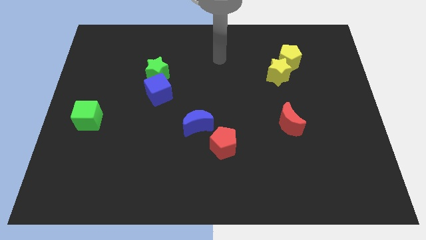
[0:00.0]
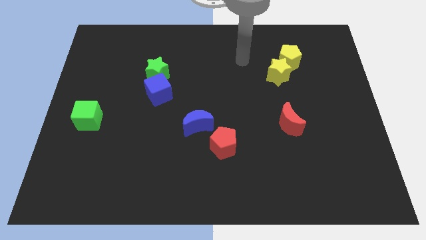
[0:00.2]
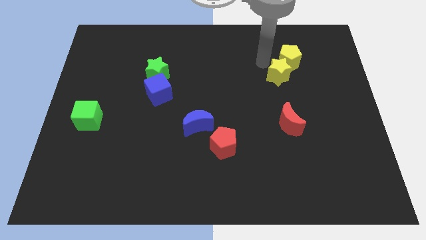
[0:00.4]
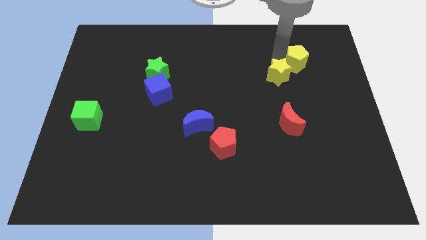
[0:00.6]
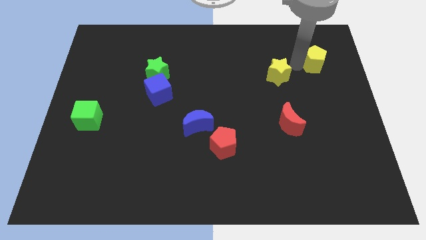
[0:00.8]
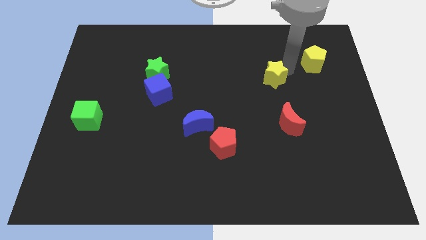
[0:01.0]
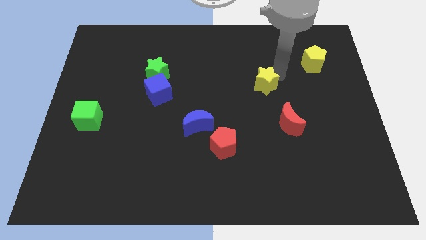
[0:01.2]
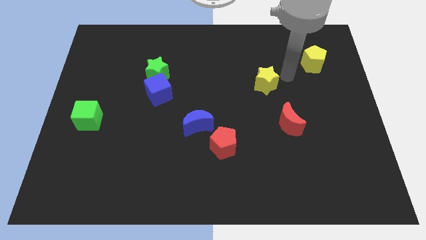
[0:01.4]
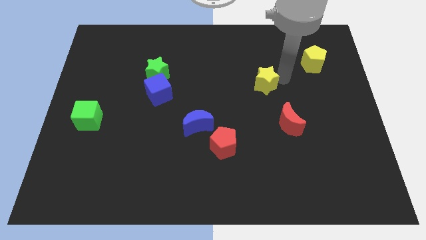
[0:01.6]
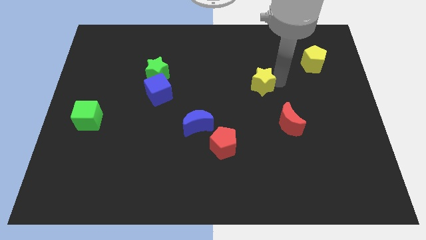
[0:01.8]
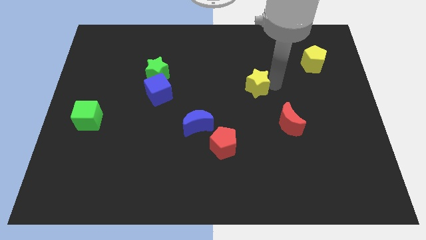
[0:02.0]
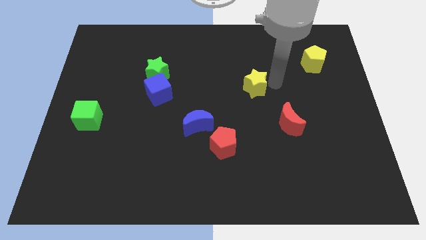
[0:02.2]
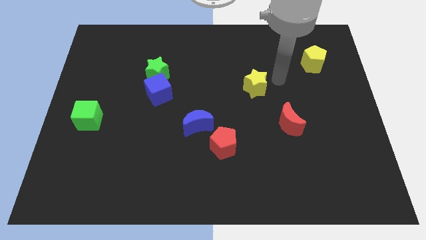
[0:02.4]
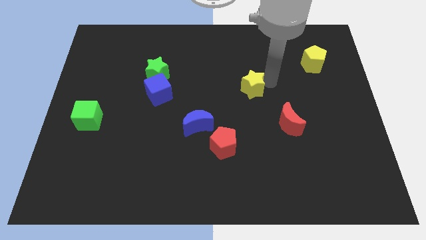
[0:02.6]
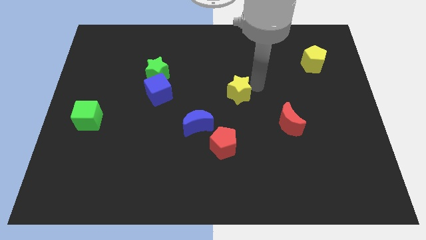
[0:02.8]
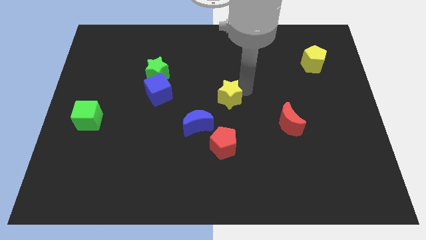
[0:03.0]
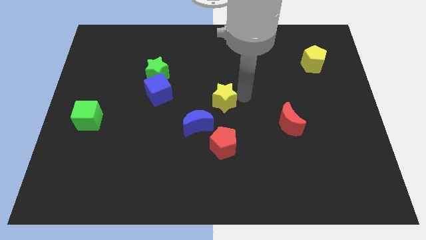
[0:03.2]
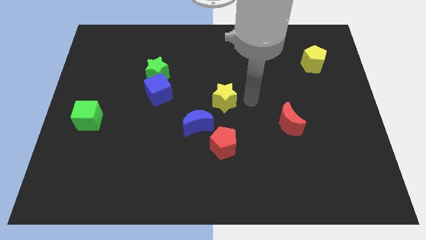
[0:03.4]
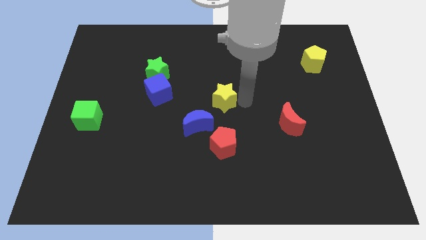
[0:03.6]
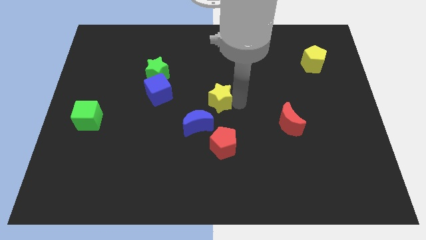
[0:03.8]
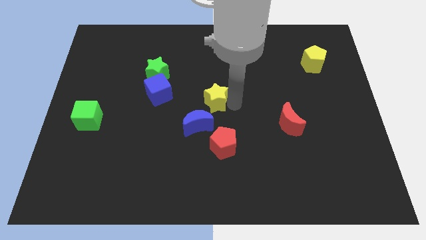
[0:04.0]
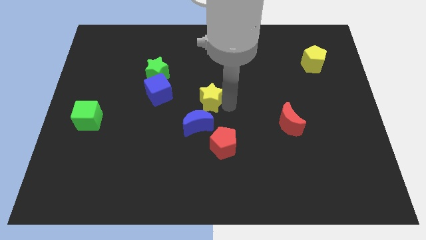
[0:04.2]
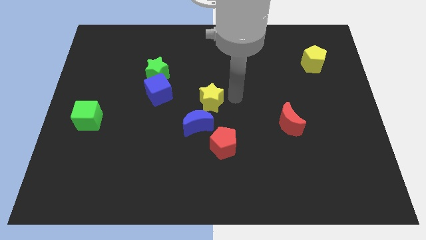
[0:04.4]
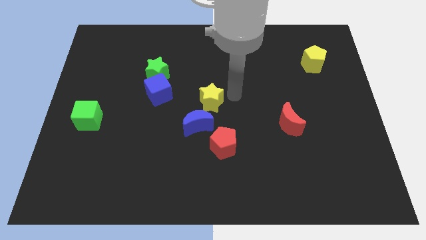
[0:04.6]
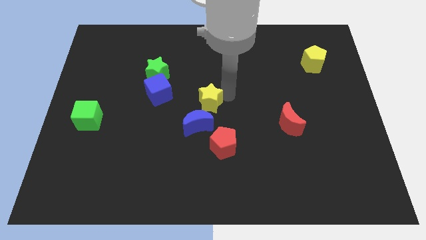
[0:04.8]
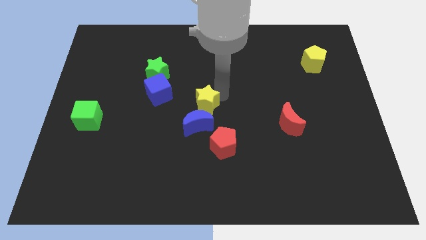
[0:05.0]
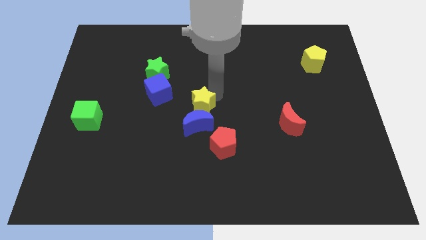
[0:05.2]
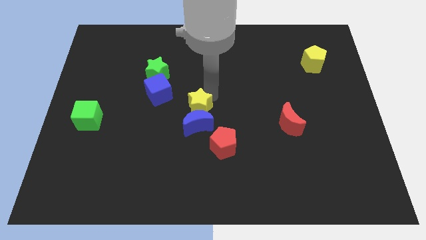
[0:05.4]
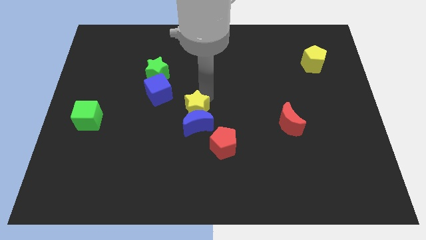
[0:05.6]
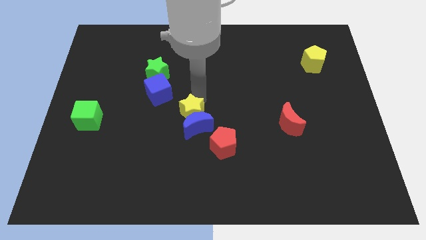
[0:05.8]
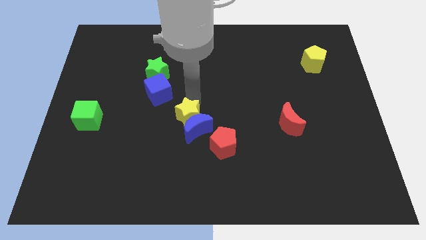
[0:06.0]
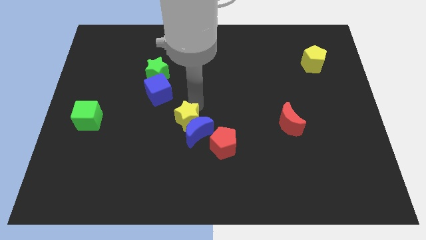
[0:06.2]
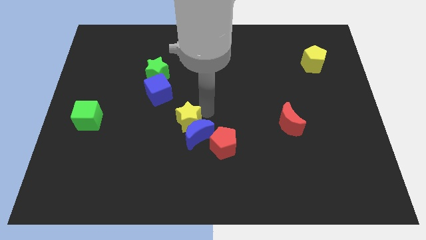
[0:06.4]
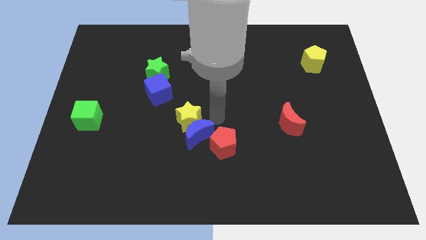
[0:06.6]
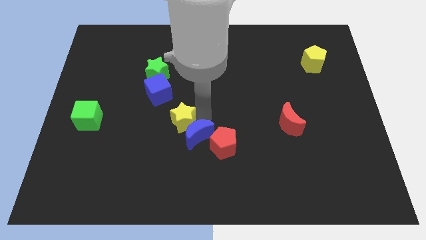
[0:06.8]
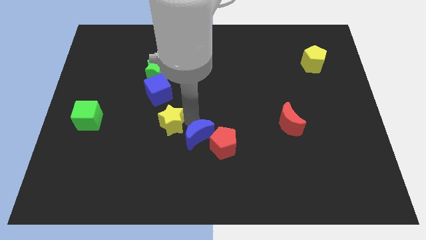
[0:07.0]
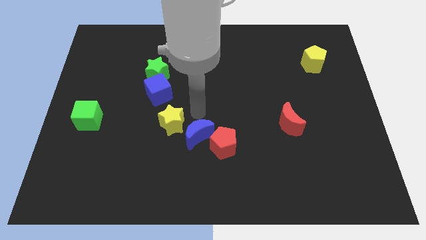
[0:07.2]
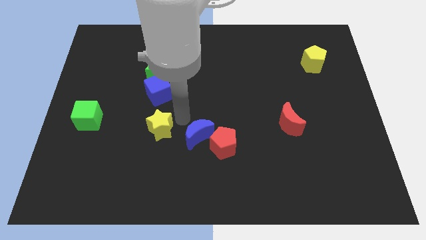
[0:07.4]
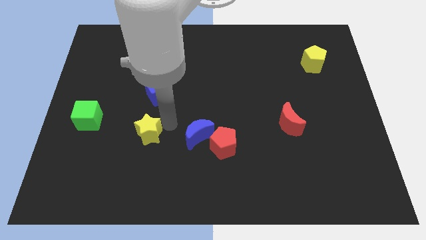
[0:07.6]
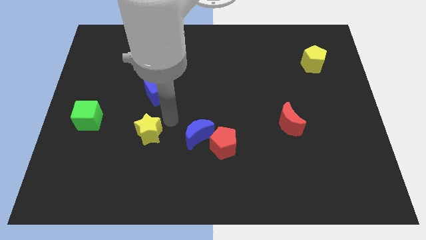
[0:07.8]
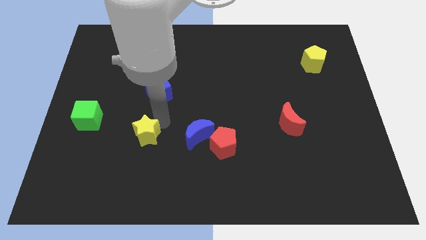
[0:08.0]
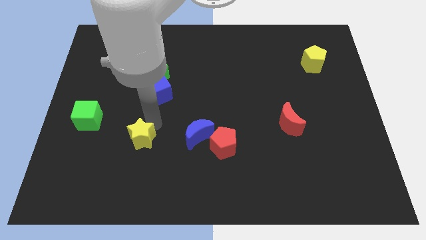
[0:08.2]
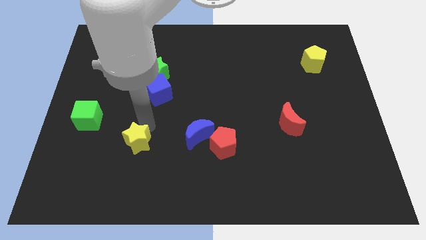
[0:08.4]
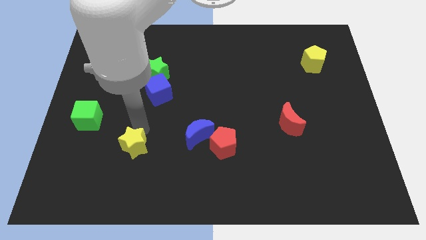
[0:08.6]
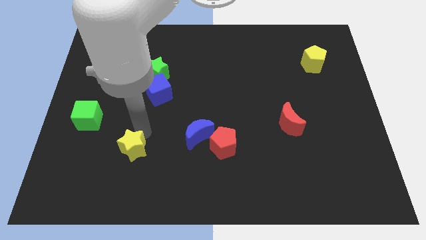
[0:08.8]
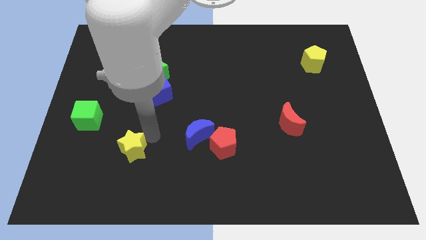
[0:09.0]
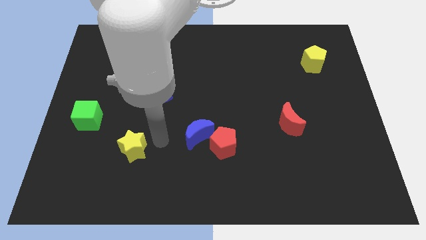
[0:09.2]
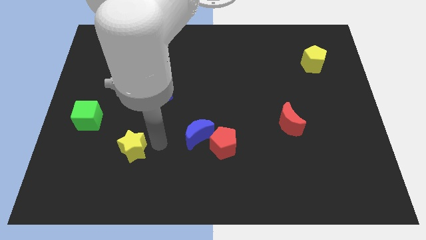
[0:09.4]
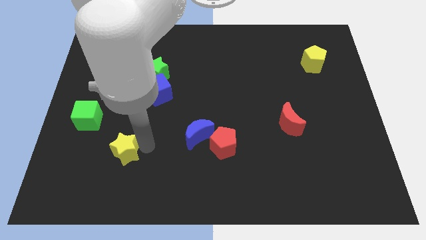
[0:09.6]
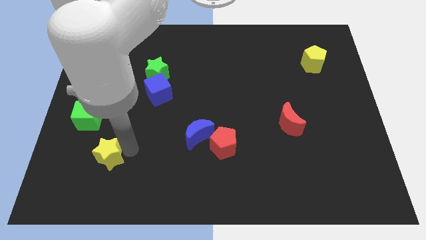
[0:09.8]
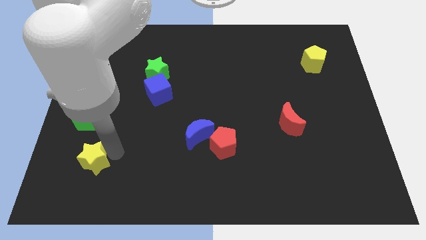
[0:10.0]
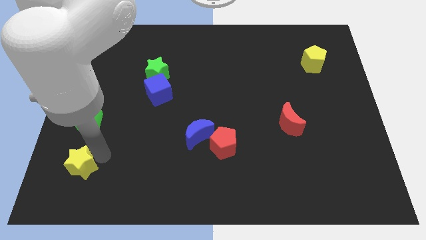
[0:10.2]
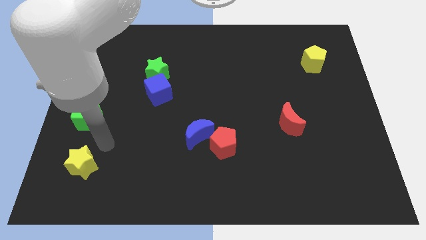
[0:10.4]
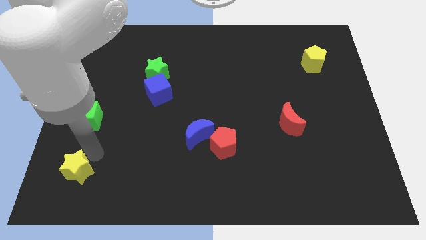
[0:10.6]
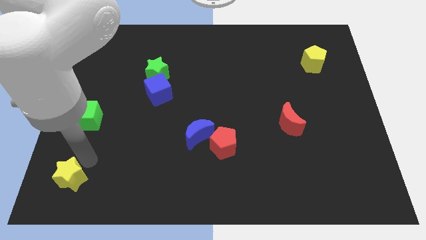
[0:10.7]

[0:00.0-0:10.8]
push the yellow star to the bottom left of the board

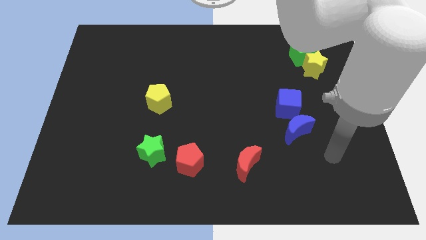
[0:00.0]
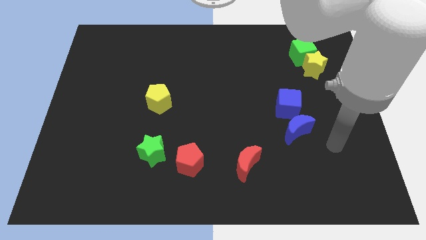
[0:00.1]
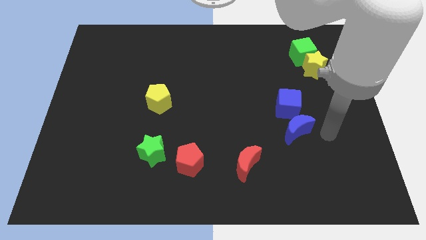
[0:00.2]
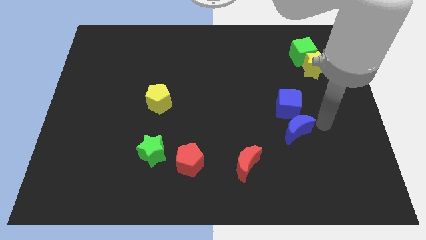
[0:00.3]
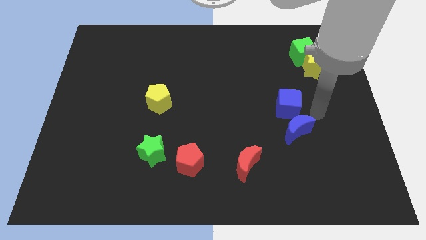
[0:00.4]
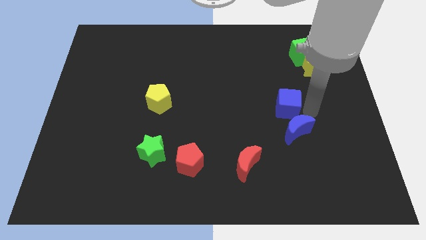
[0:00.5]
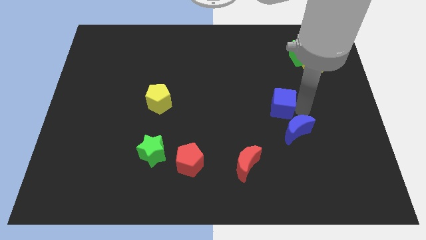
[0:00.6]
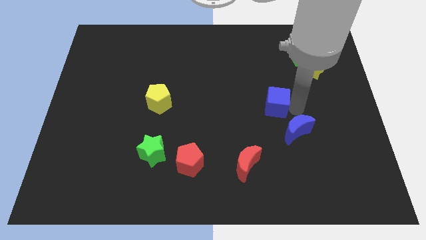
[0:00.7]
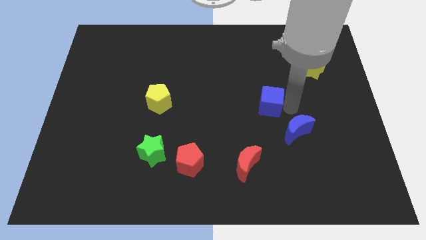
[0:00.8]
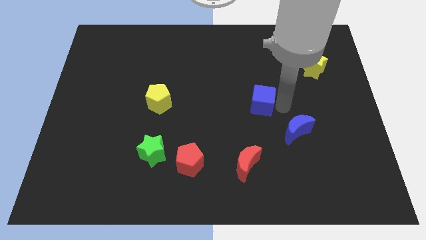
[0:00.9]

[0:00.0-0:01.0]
move the blue cube to the middle of the board
